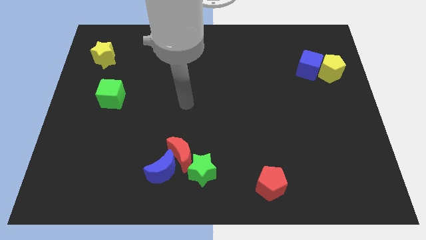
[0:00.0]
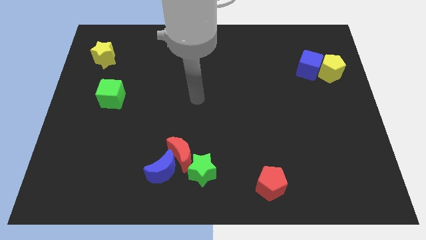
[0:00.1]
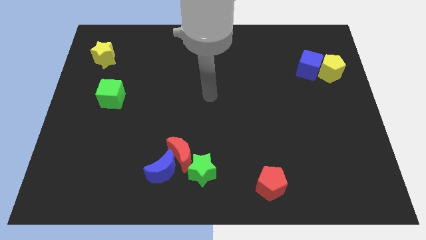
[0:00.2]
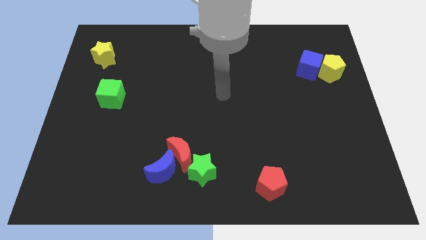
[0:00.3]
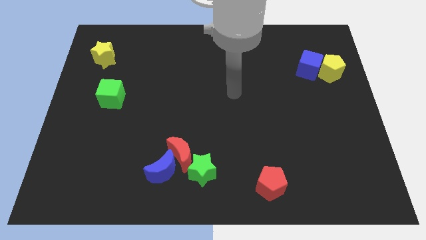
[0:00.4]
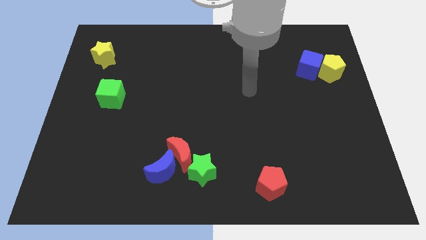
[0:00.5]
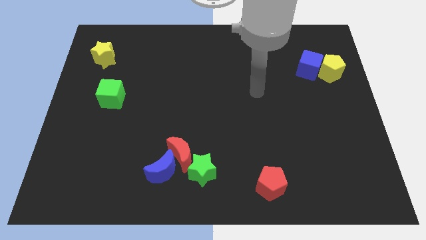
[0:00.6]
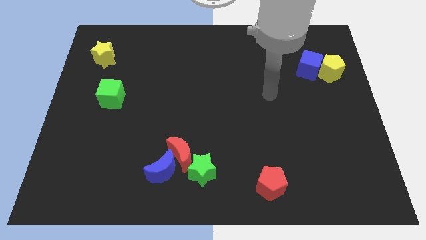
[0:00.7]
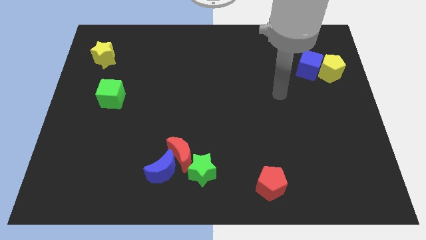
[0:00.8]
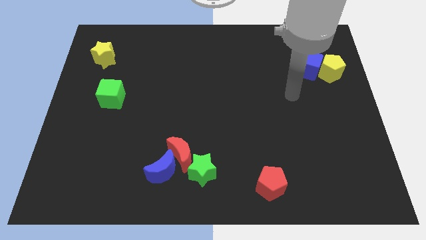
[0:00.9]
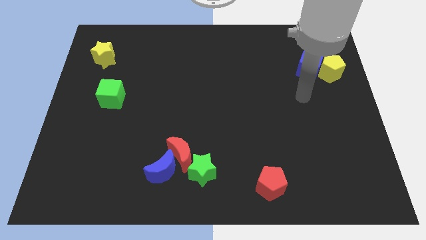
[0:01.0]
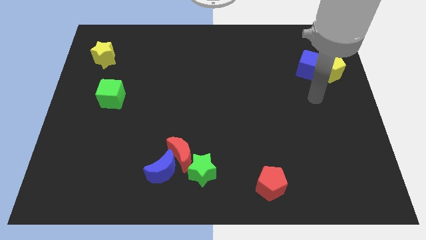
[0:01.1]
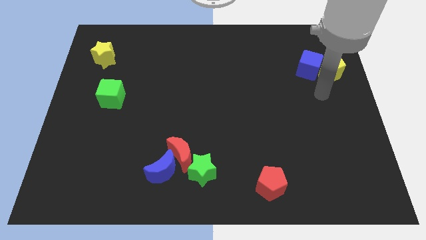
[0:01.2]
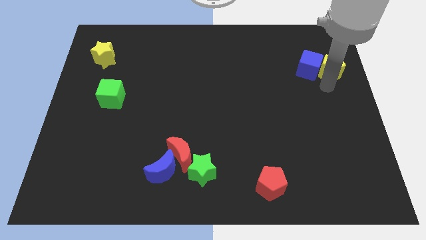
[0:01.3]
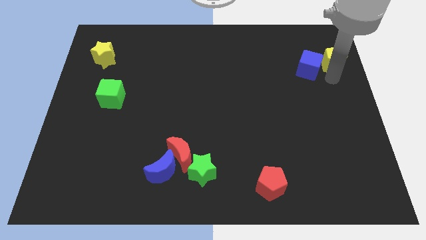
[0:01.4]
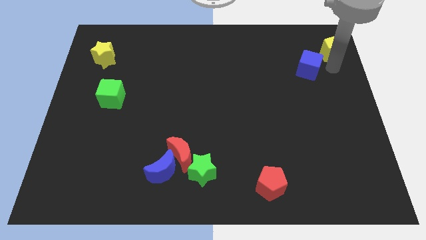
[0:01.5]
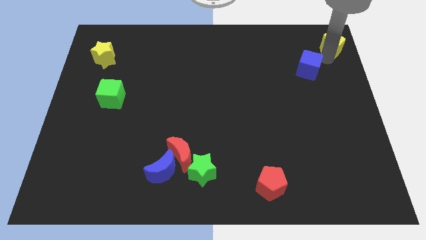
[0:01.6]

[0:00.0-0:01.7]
pull the blue cube apart from the yellow pentagon

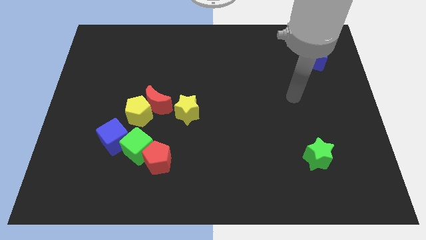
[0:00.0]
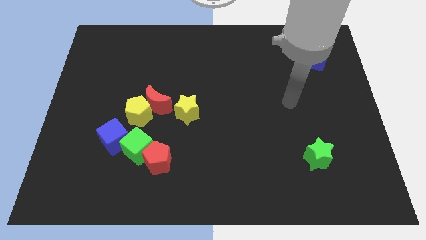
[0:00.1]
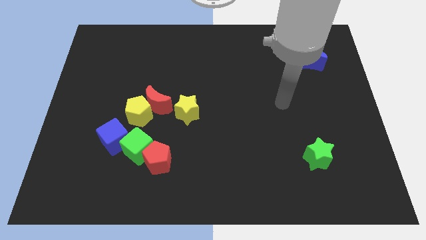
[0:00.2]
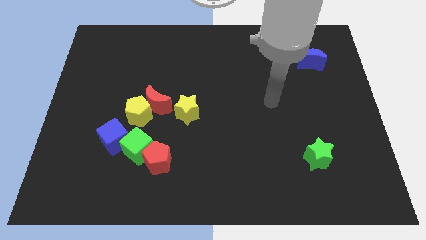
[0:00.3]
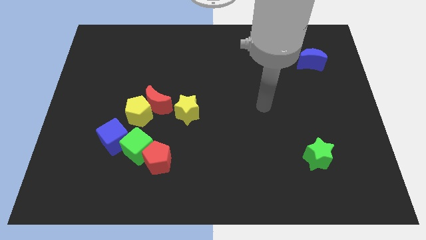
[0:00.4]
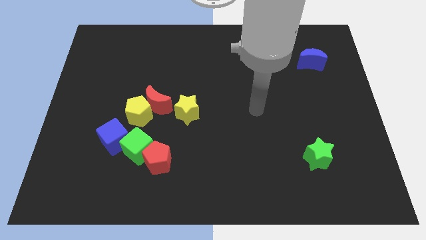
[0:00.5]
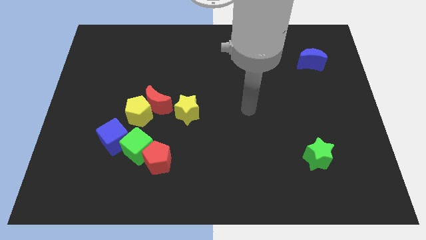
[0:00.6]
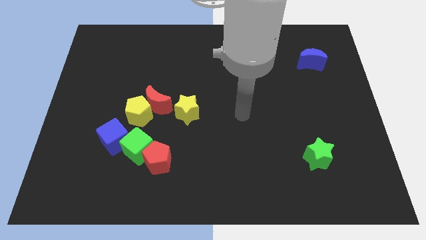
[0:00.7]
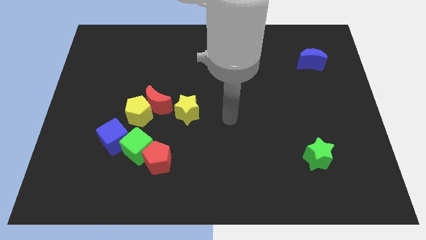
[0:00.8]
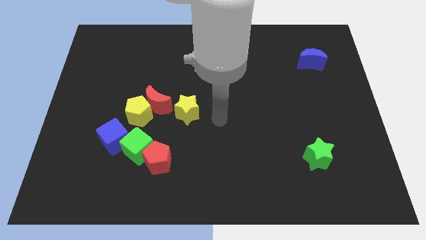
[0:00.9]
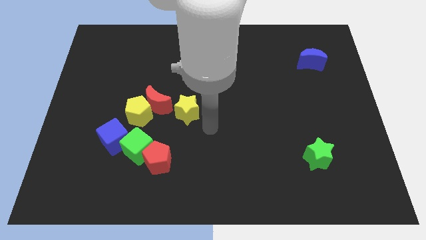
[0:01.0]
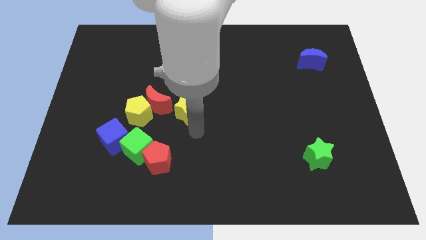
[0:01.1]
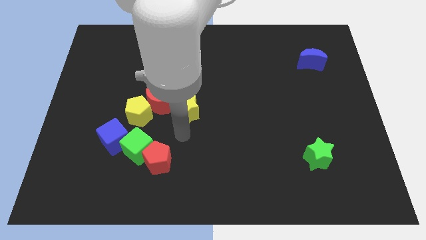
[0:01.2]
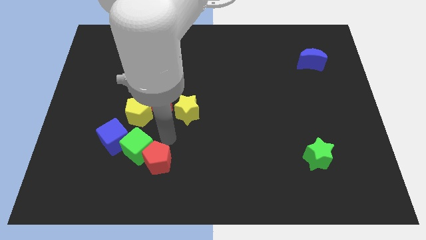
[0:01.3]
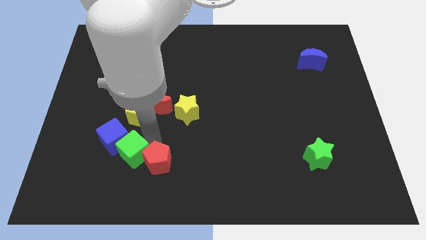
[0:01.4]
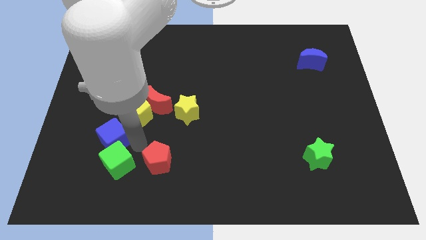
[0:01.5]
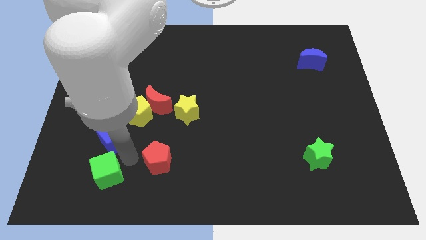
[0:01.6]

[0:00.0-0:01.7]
move the red pentagon away from the green cube

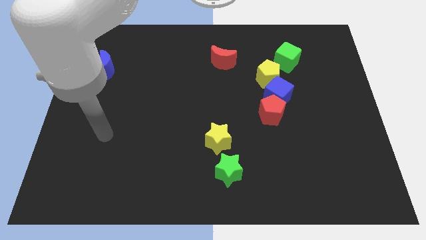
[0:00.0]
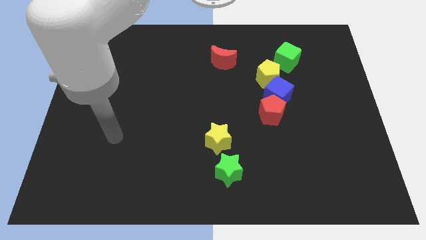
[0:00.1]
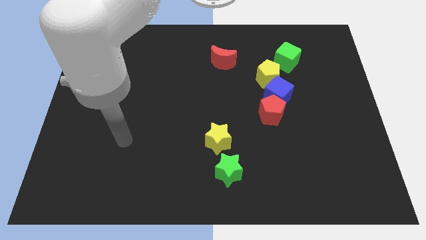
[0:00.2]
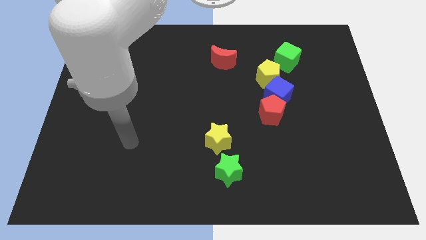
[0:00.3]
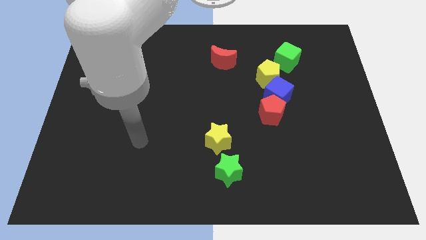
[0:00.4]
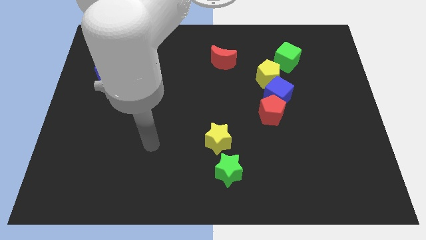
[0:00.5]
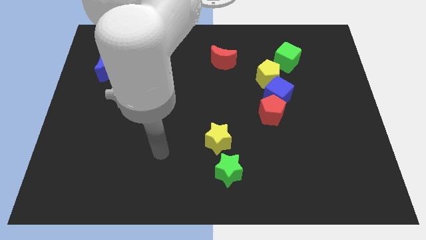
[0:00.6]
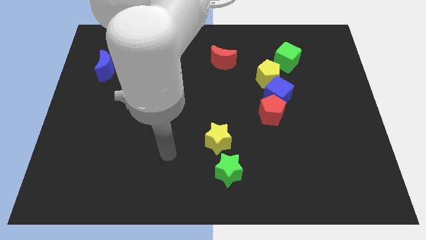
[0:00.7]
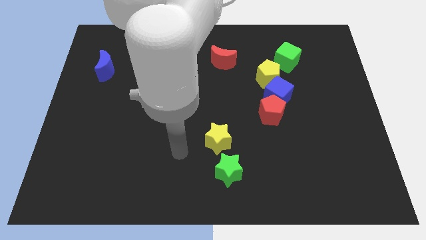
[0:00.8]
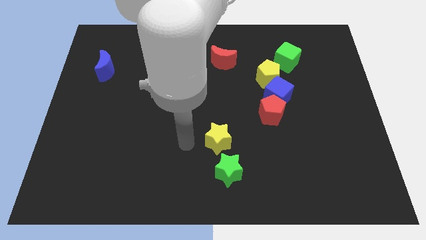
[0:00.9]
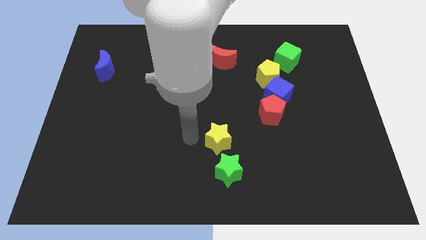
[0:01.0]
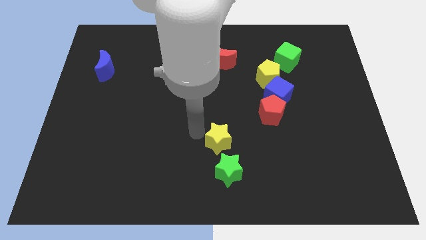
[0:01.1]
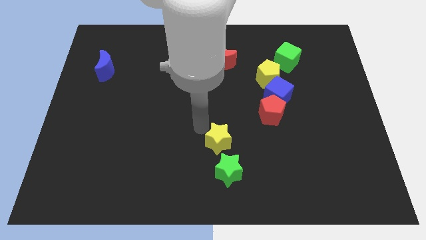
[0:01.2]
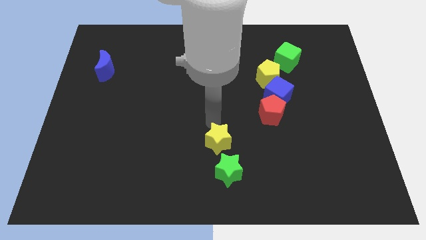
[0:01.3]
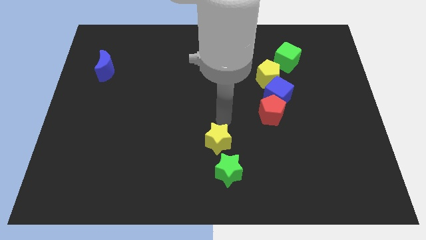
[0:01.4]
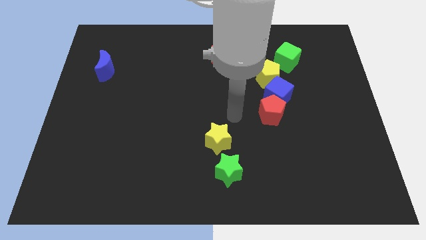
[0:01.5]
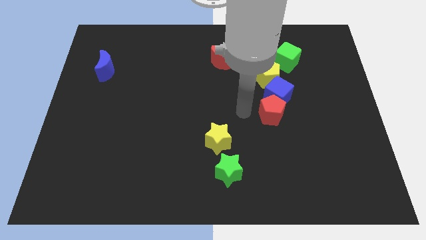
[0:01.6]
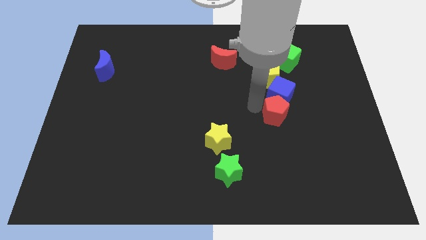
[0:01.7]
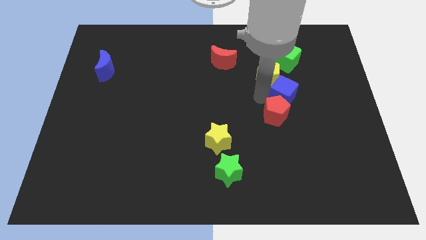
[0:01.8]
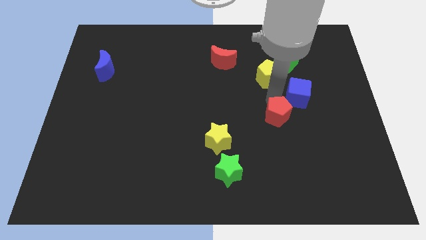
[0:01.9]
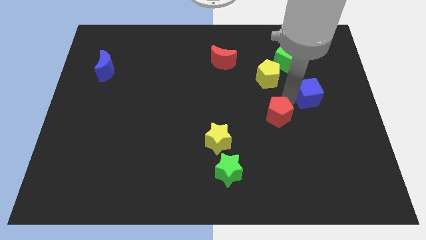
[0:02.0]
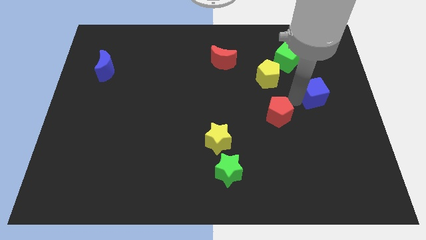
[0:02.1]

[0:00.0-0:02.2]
separate the red pentagon from the blue cube

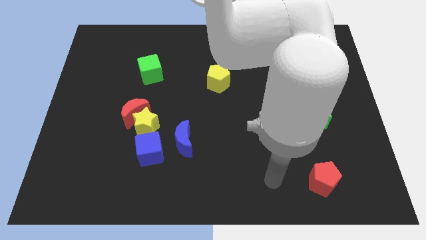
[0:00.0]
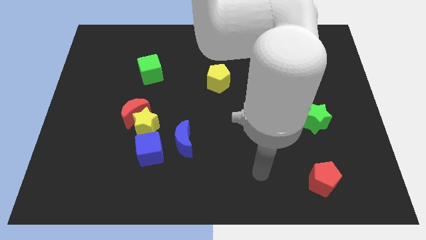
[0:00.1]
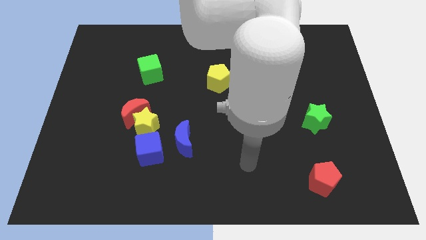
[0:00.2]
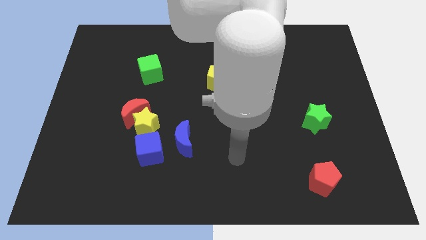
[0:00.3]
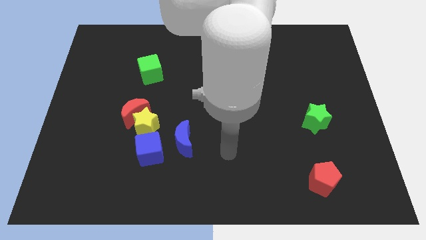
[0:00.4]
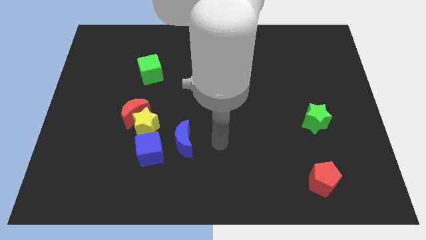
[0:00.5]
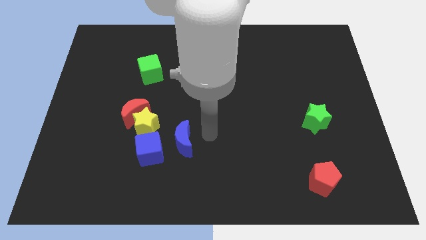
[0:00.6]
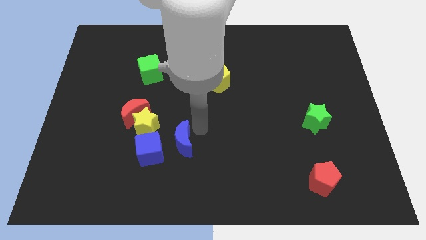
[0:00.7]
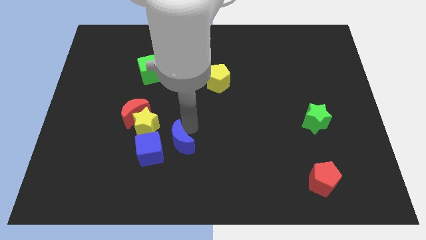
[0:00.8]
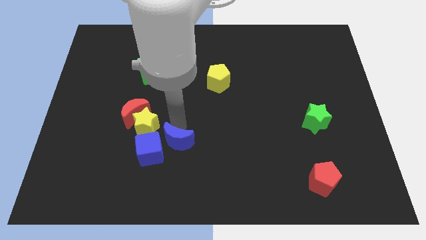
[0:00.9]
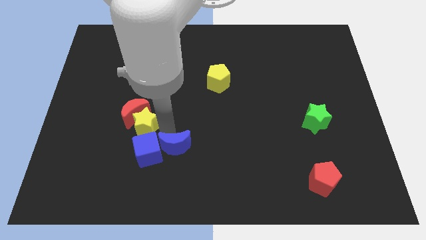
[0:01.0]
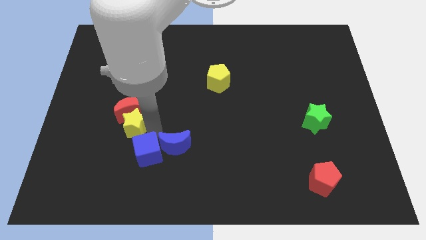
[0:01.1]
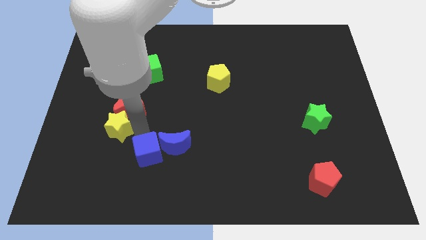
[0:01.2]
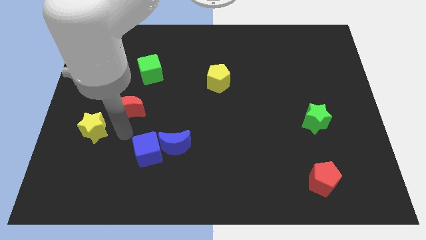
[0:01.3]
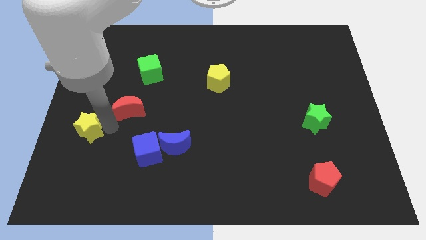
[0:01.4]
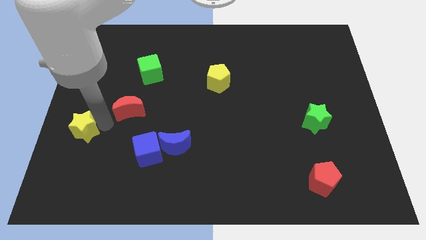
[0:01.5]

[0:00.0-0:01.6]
pull the red moon apart from the yellow star

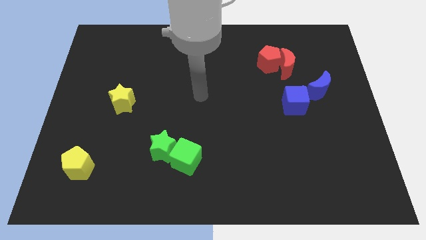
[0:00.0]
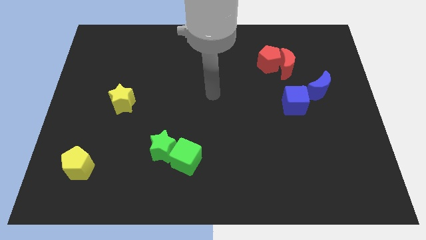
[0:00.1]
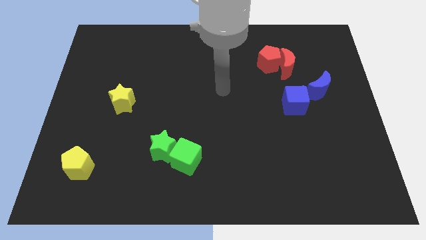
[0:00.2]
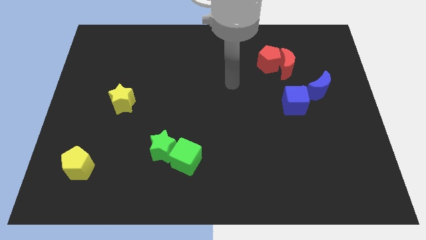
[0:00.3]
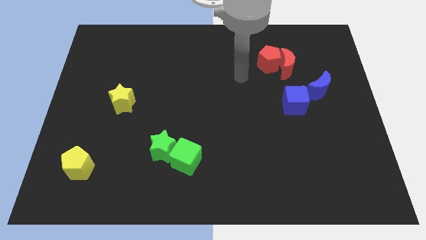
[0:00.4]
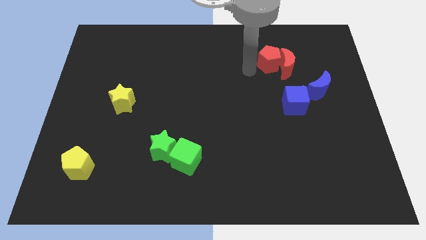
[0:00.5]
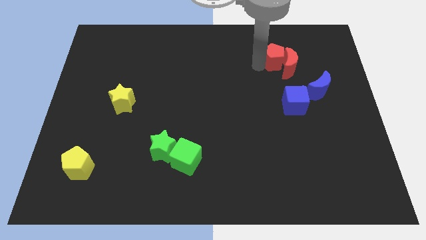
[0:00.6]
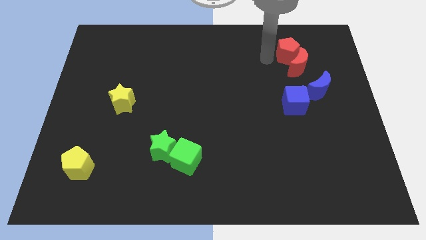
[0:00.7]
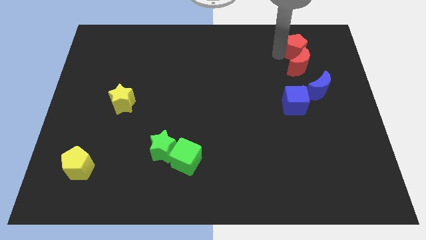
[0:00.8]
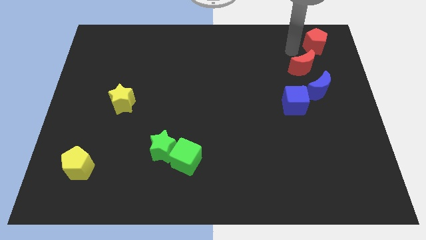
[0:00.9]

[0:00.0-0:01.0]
pull the red moon apart from the red pentagon

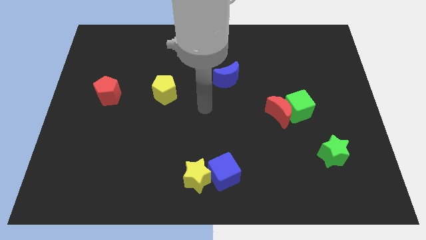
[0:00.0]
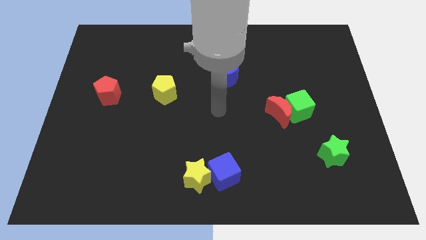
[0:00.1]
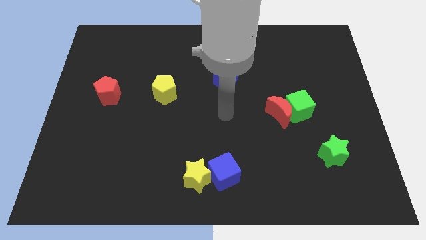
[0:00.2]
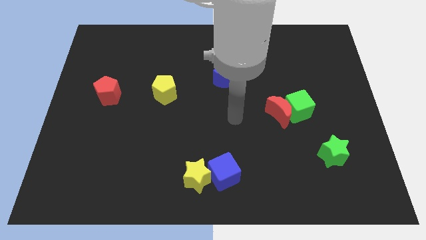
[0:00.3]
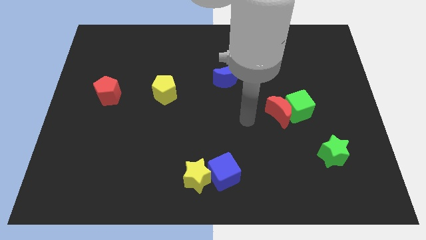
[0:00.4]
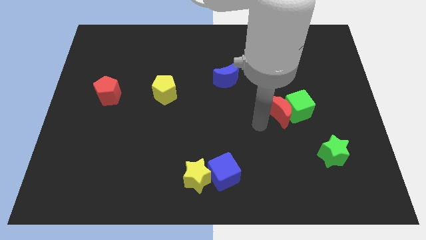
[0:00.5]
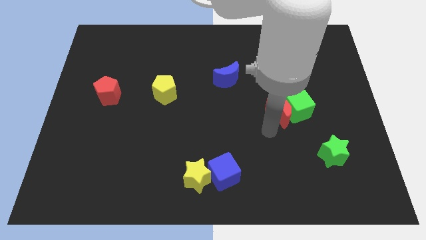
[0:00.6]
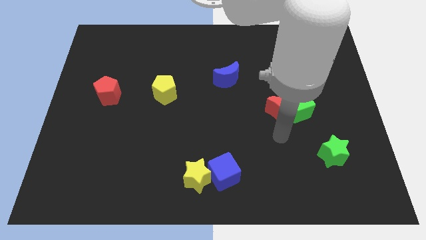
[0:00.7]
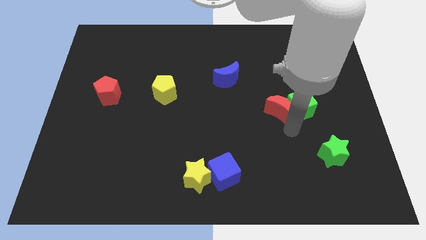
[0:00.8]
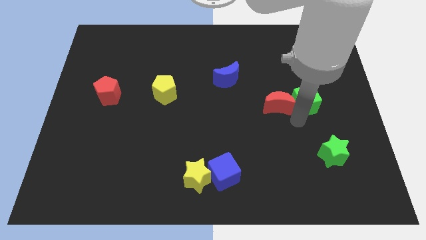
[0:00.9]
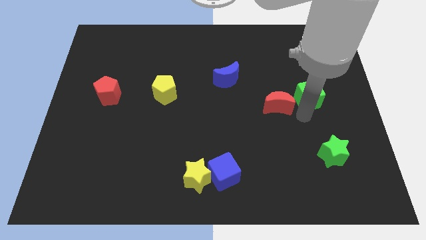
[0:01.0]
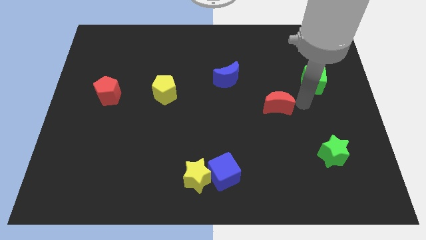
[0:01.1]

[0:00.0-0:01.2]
pull the red moon apart from the green cube
